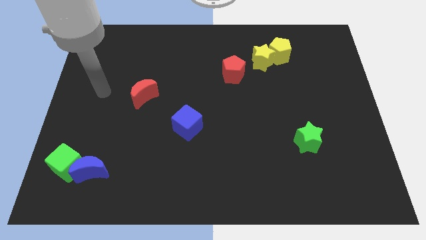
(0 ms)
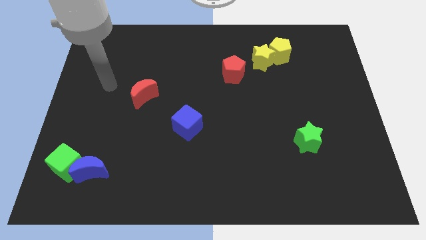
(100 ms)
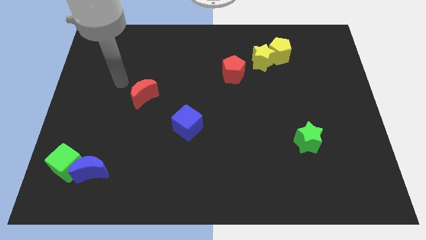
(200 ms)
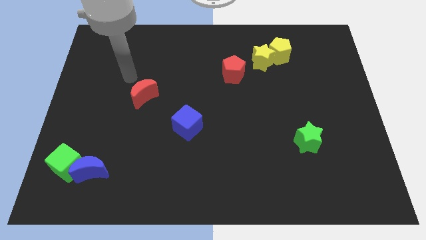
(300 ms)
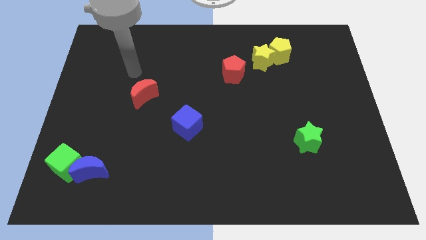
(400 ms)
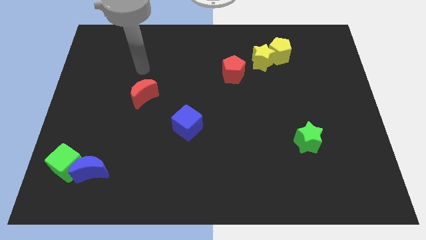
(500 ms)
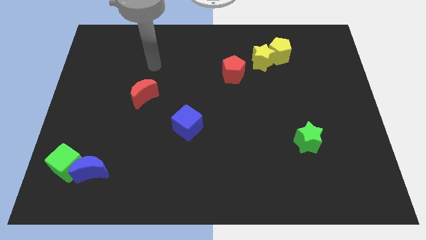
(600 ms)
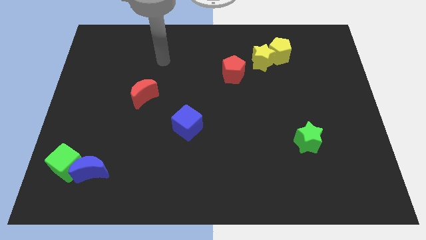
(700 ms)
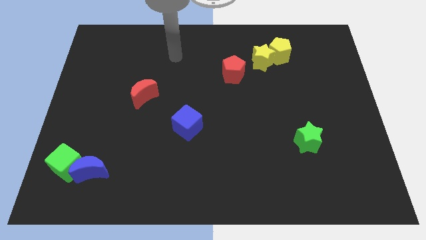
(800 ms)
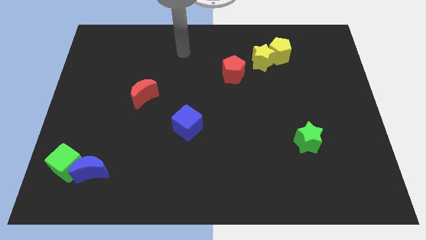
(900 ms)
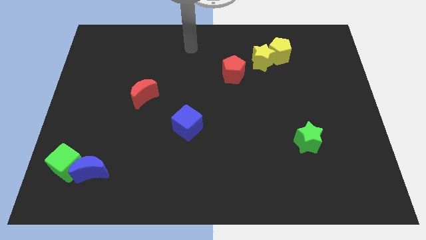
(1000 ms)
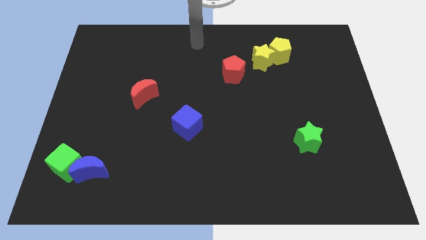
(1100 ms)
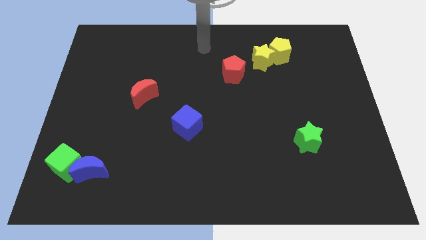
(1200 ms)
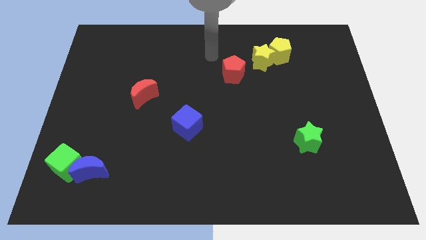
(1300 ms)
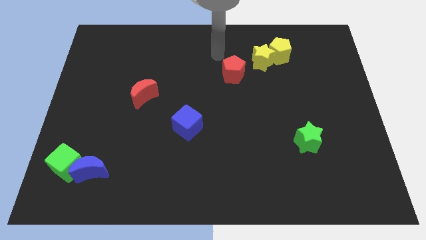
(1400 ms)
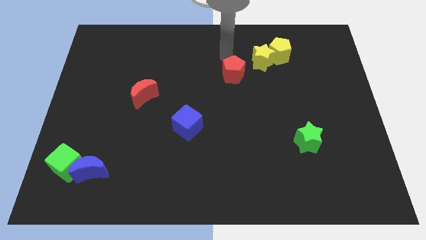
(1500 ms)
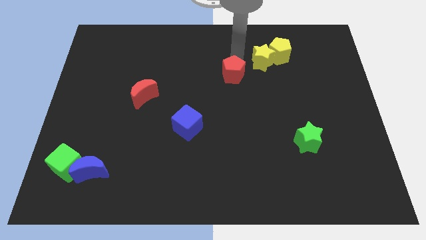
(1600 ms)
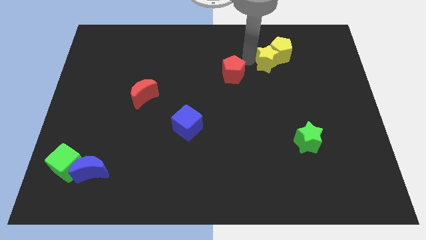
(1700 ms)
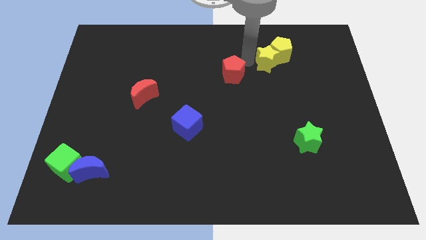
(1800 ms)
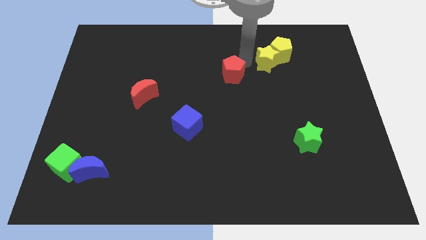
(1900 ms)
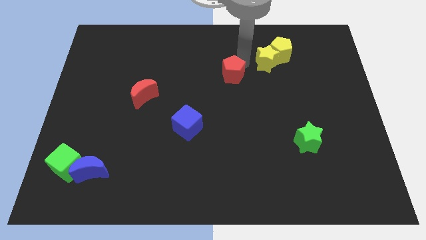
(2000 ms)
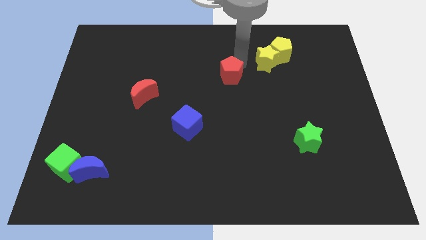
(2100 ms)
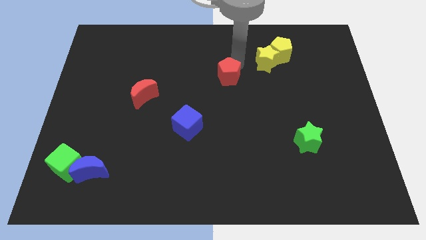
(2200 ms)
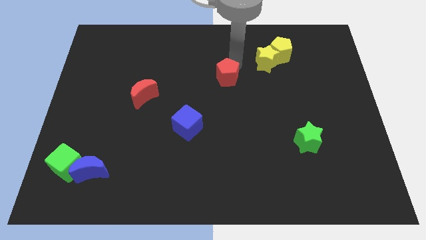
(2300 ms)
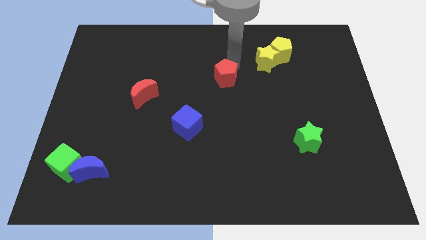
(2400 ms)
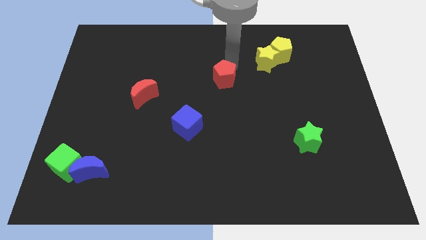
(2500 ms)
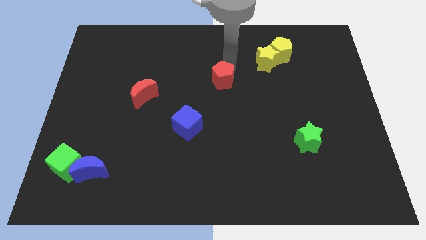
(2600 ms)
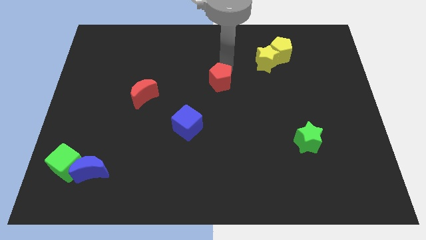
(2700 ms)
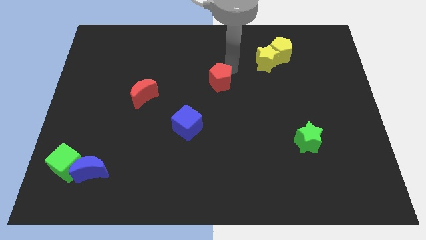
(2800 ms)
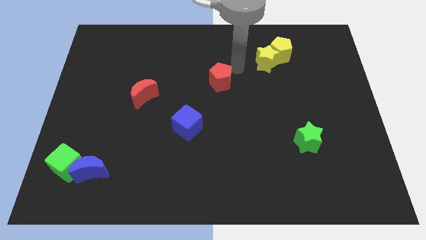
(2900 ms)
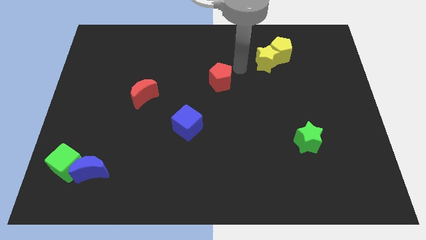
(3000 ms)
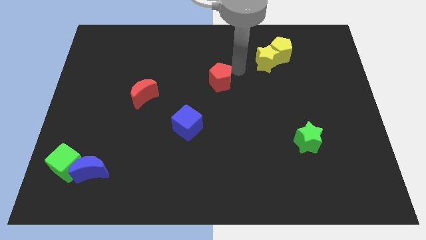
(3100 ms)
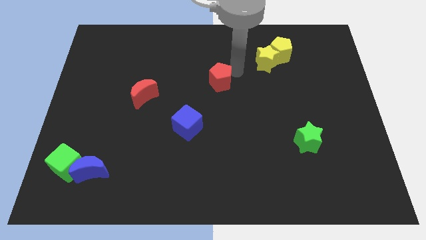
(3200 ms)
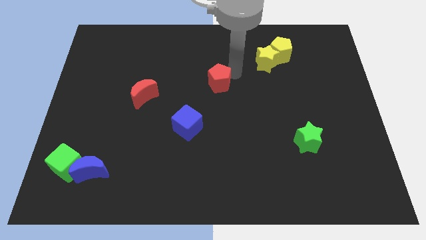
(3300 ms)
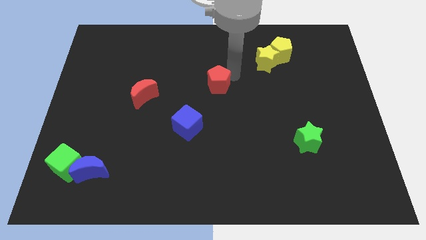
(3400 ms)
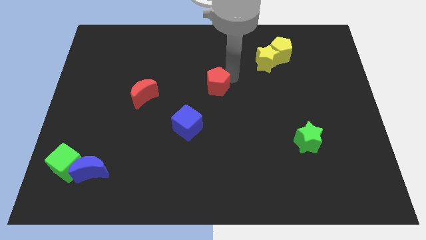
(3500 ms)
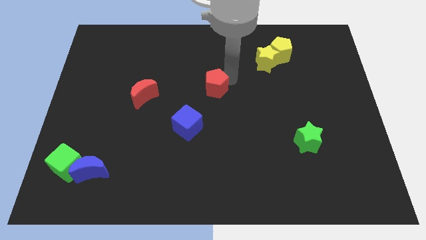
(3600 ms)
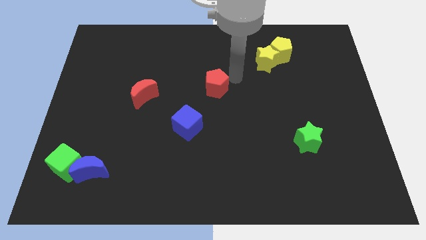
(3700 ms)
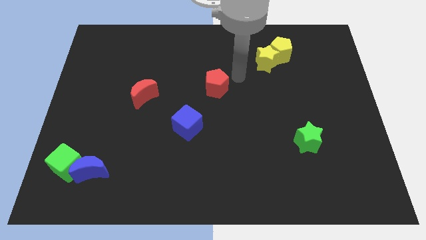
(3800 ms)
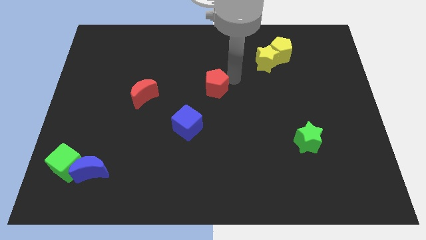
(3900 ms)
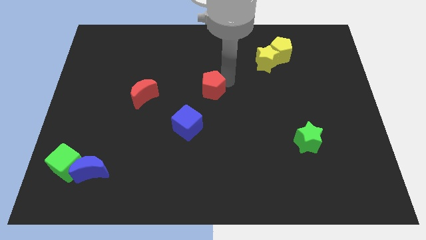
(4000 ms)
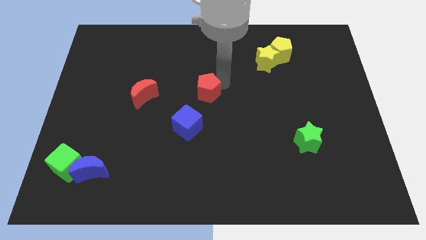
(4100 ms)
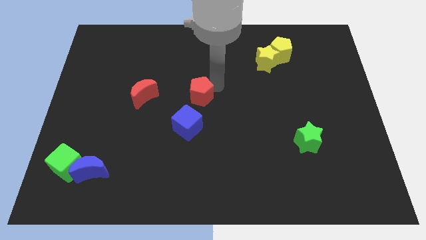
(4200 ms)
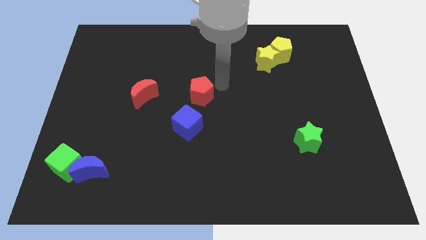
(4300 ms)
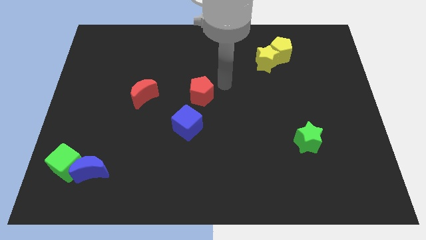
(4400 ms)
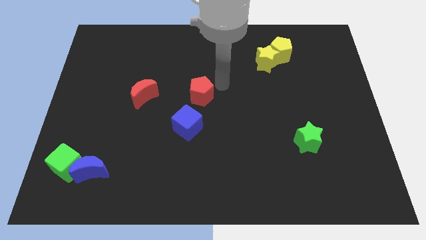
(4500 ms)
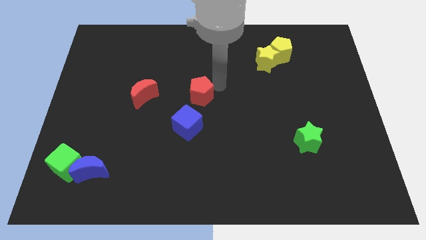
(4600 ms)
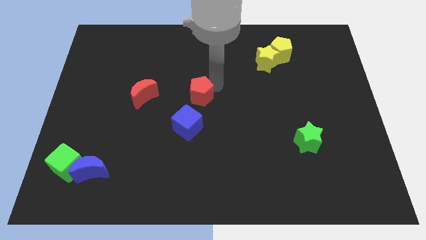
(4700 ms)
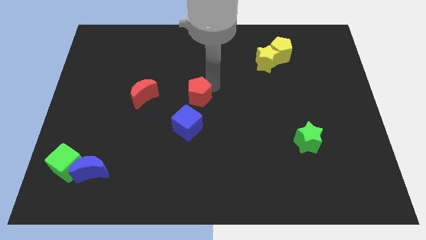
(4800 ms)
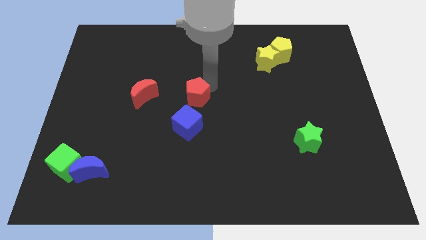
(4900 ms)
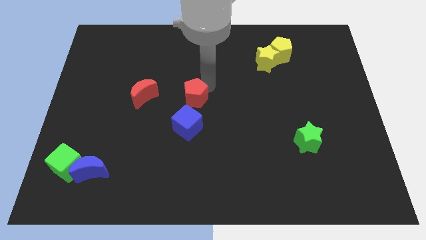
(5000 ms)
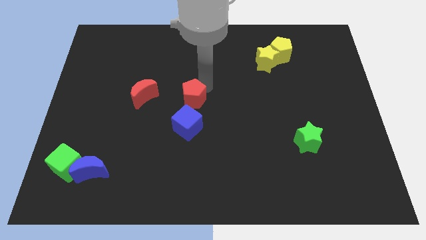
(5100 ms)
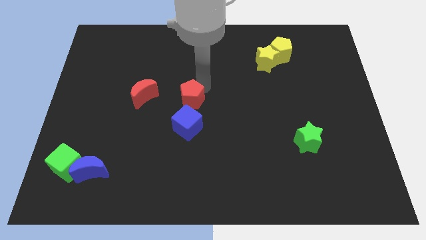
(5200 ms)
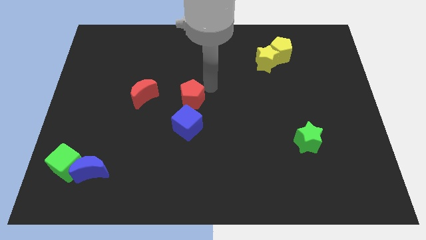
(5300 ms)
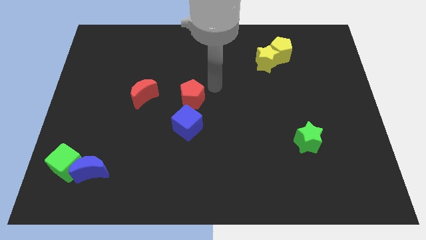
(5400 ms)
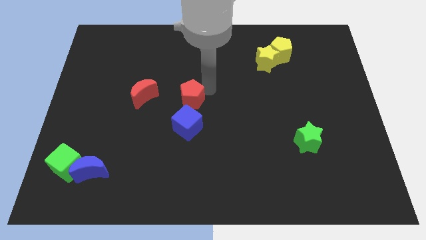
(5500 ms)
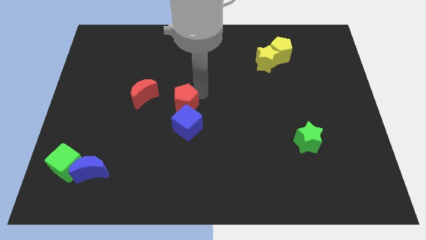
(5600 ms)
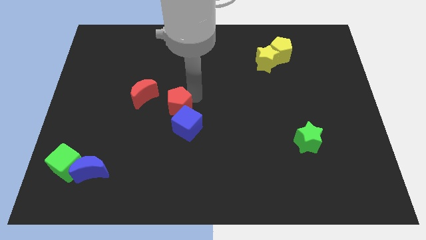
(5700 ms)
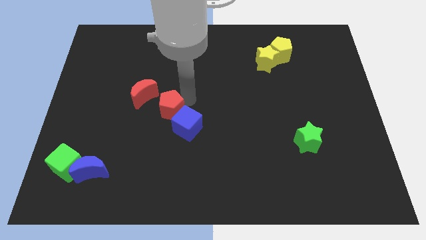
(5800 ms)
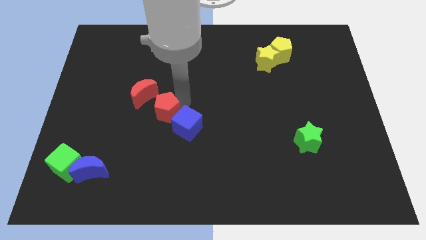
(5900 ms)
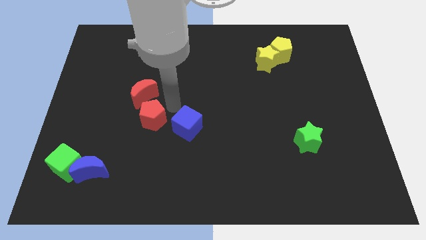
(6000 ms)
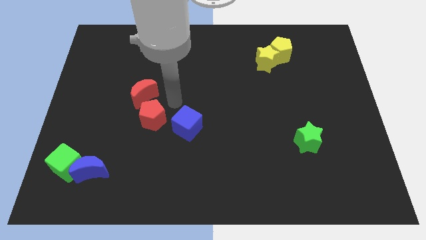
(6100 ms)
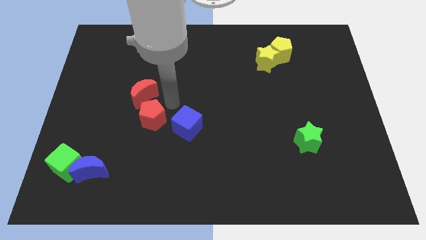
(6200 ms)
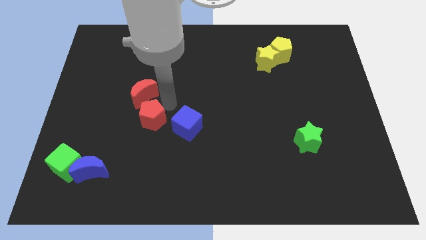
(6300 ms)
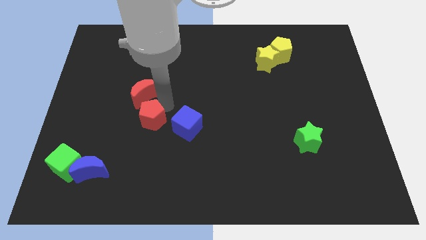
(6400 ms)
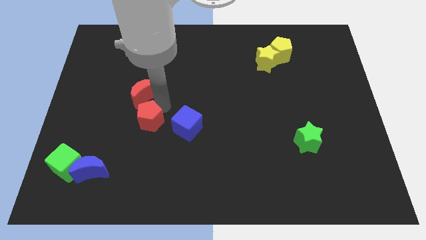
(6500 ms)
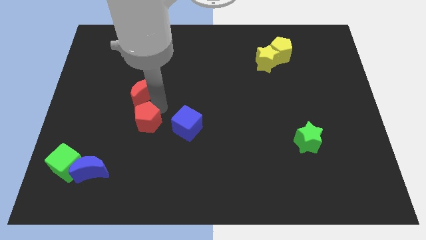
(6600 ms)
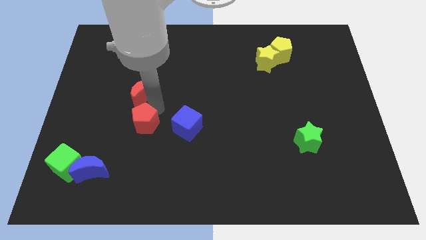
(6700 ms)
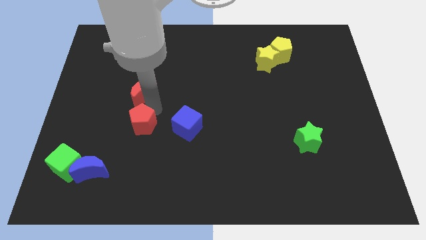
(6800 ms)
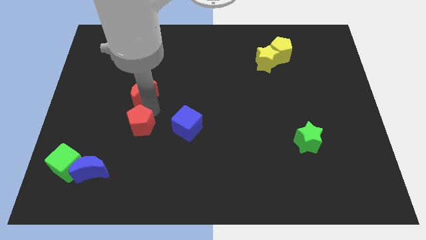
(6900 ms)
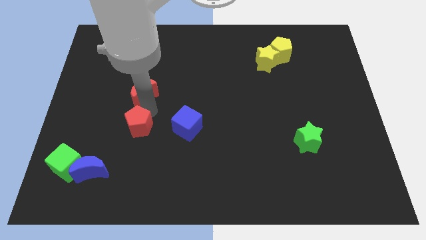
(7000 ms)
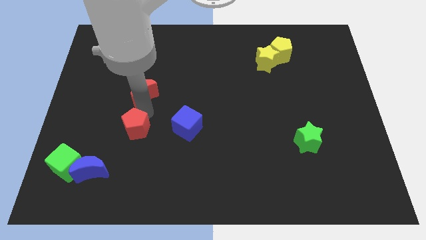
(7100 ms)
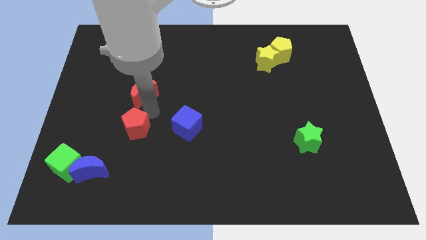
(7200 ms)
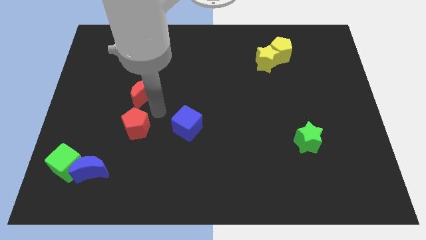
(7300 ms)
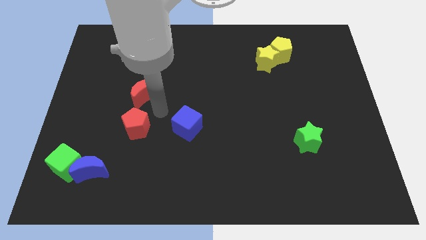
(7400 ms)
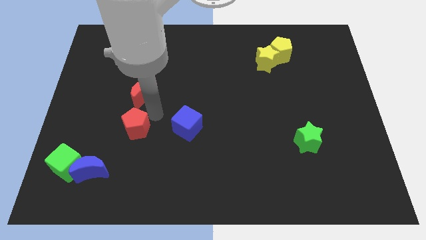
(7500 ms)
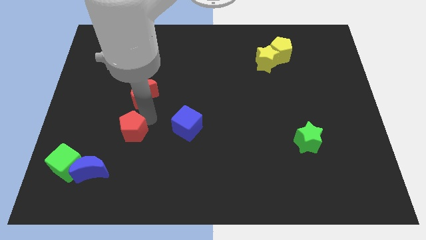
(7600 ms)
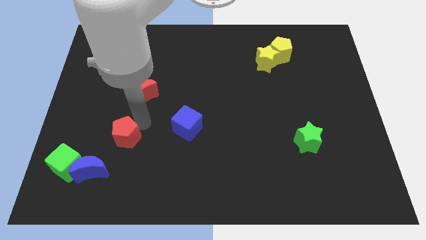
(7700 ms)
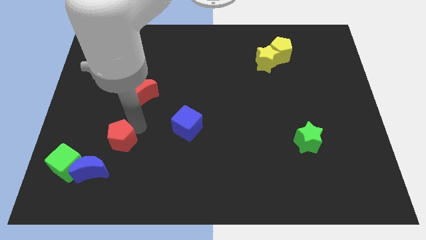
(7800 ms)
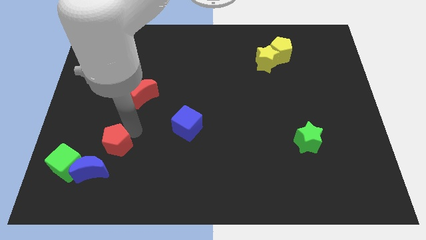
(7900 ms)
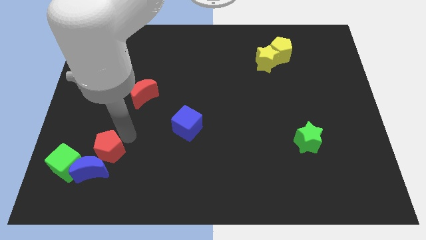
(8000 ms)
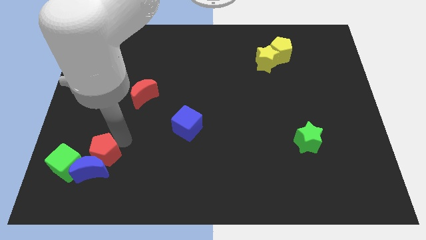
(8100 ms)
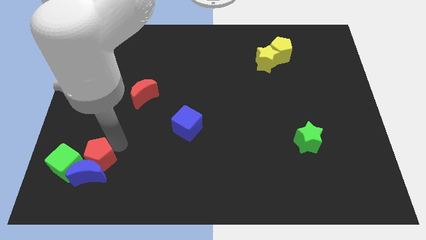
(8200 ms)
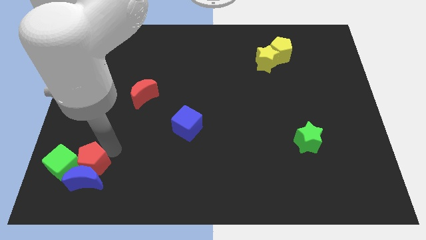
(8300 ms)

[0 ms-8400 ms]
push the red pentagon to the green cube
